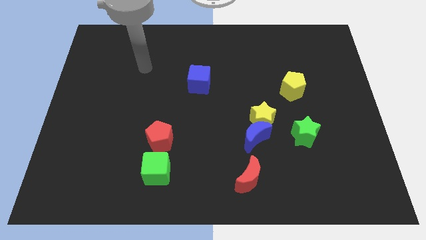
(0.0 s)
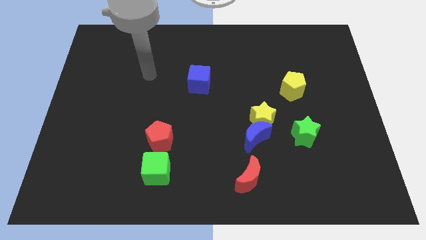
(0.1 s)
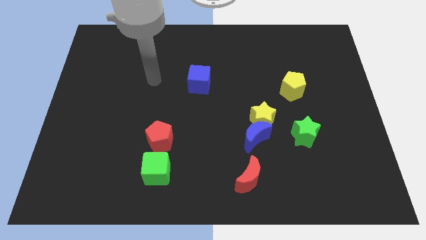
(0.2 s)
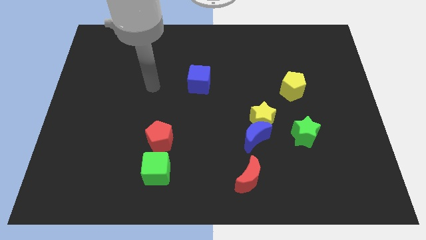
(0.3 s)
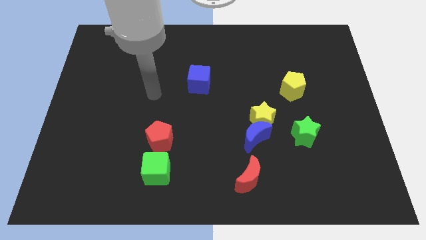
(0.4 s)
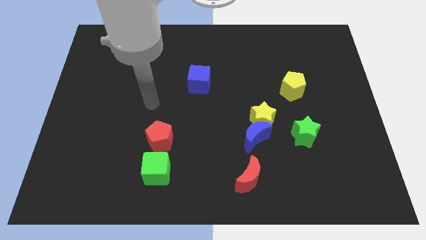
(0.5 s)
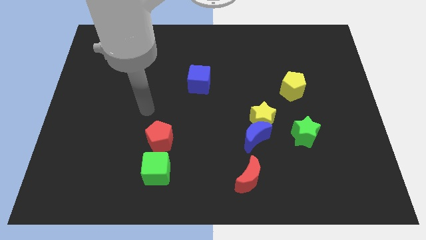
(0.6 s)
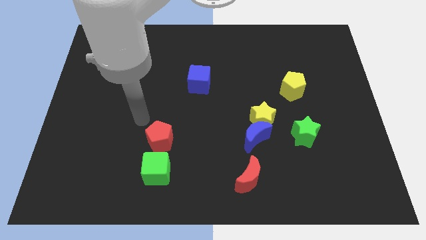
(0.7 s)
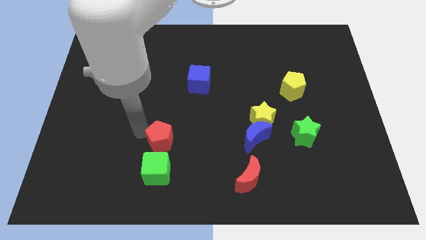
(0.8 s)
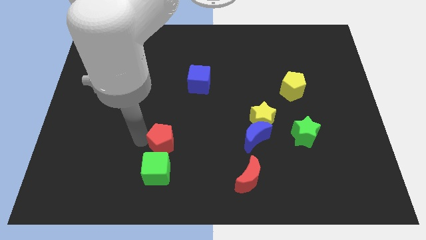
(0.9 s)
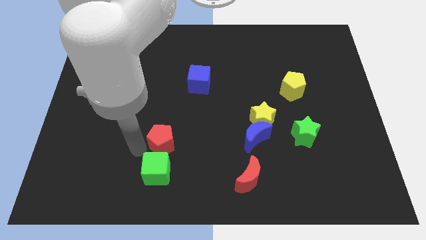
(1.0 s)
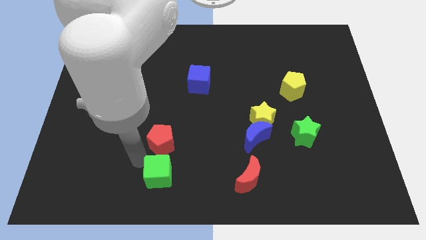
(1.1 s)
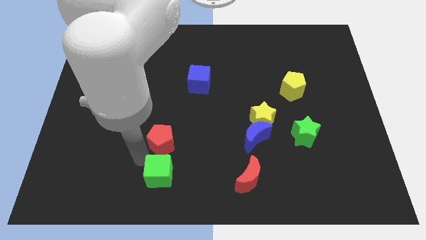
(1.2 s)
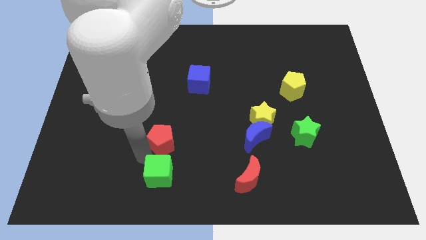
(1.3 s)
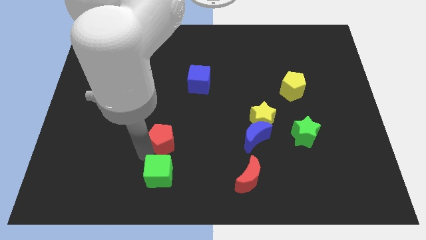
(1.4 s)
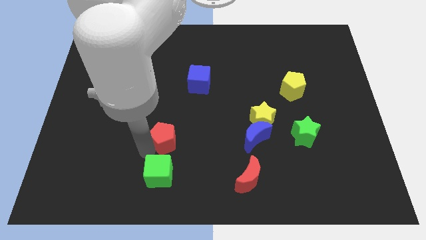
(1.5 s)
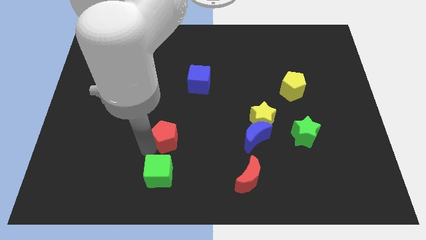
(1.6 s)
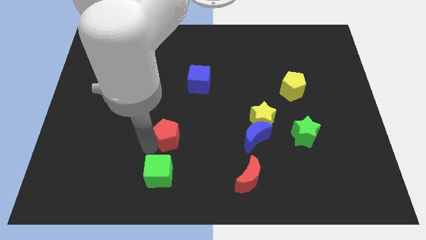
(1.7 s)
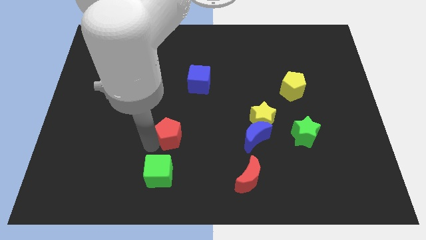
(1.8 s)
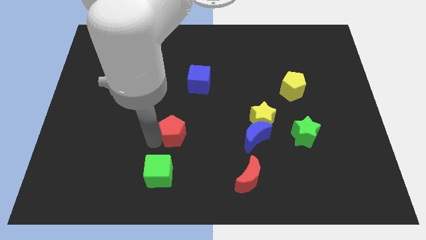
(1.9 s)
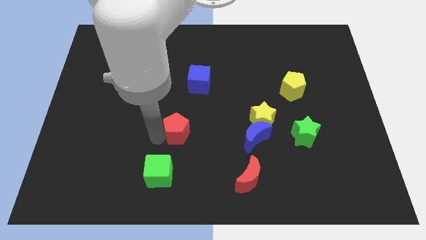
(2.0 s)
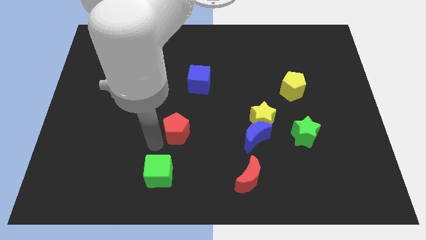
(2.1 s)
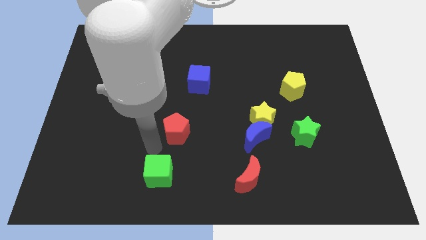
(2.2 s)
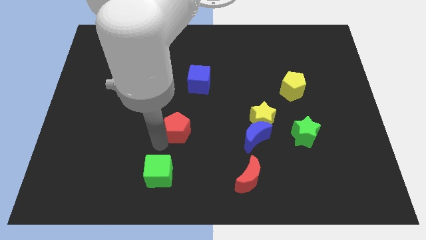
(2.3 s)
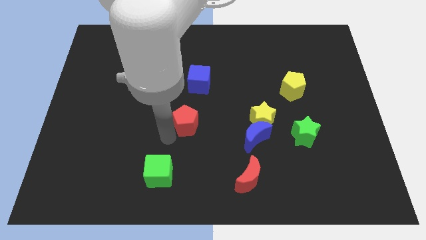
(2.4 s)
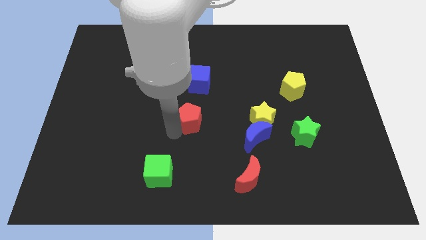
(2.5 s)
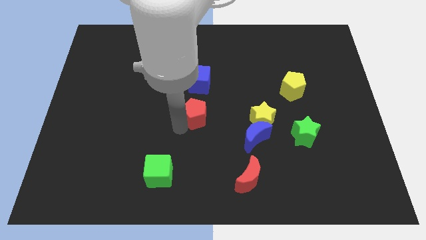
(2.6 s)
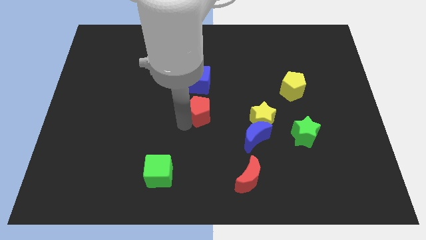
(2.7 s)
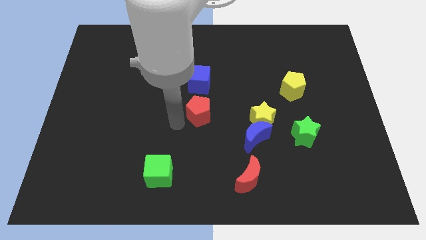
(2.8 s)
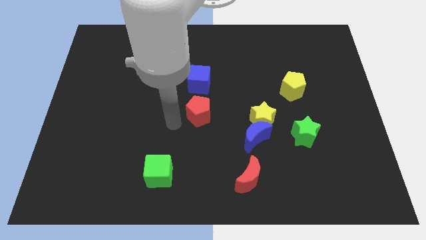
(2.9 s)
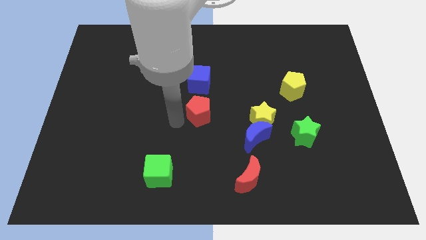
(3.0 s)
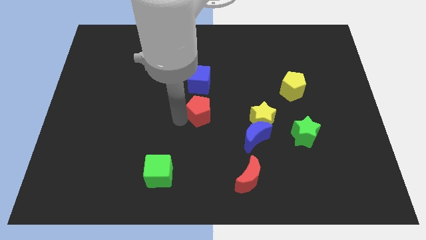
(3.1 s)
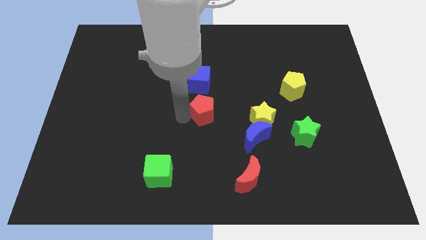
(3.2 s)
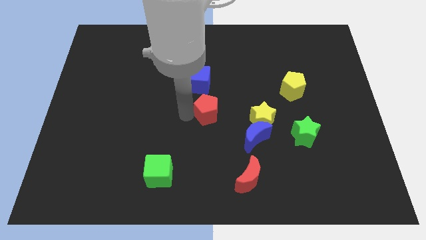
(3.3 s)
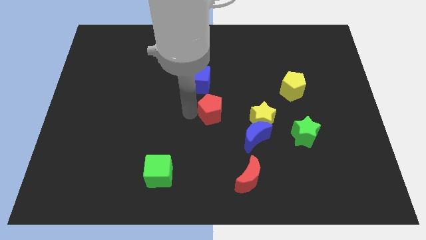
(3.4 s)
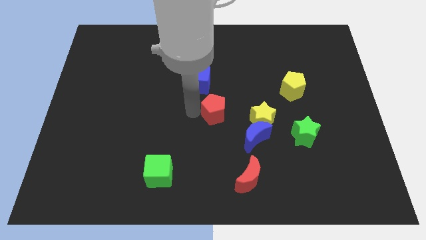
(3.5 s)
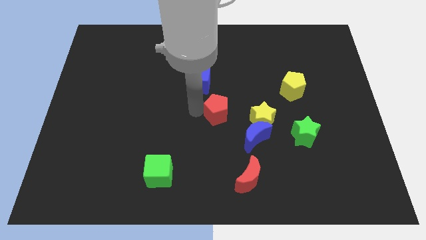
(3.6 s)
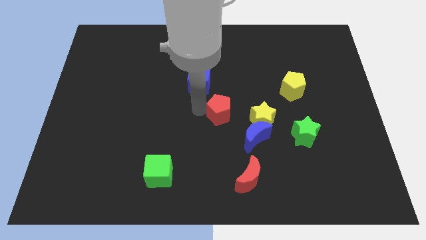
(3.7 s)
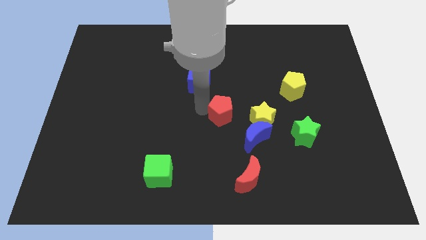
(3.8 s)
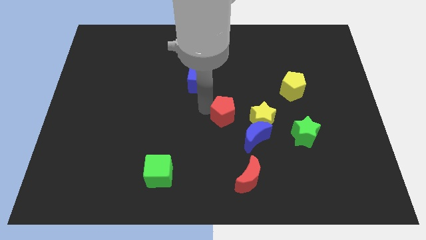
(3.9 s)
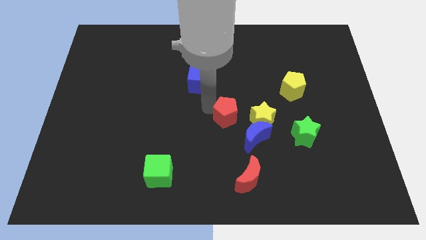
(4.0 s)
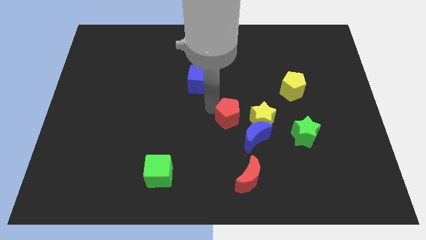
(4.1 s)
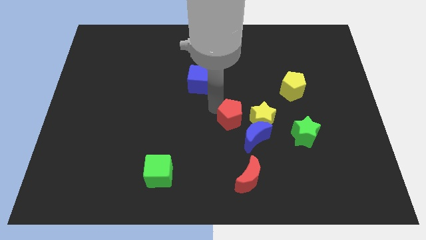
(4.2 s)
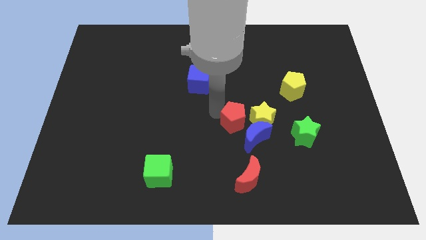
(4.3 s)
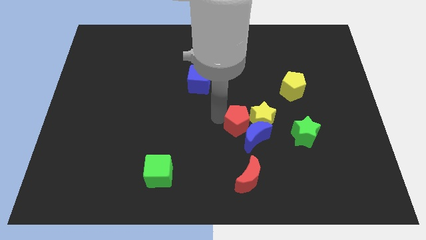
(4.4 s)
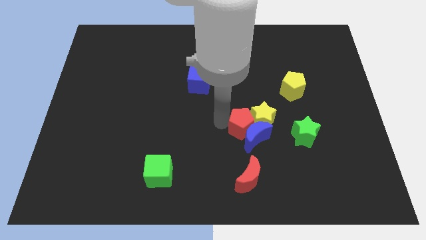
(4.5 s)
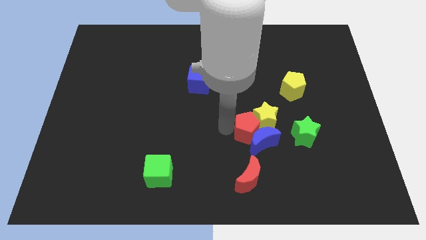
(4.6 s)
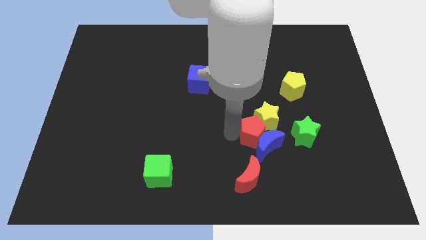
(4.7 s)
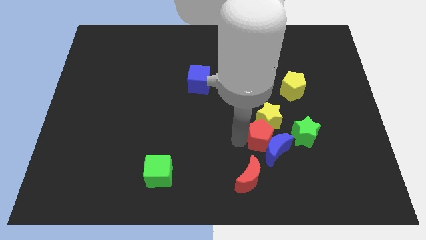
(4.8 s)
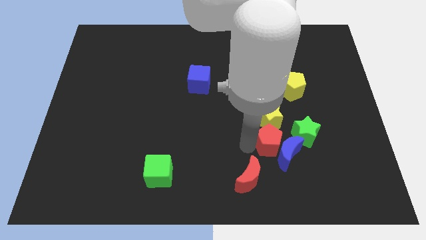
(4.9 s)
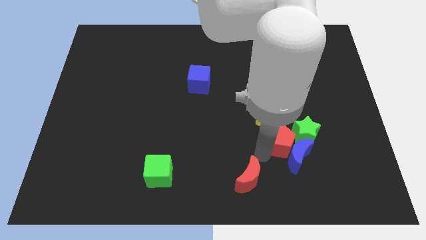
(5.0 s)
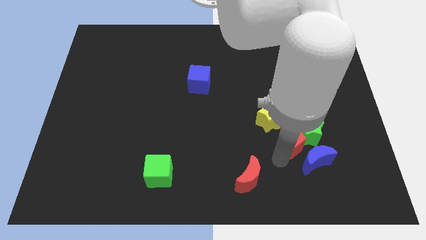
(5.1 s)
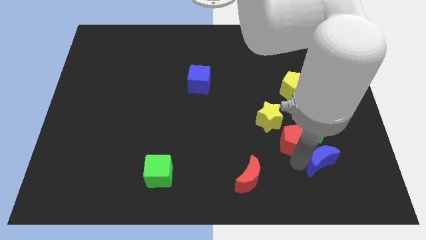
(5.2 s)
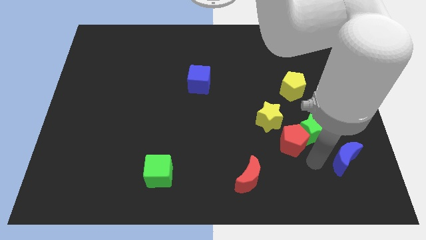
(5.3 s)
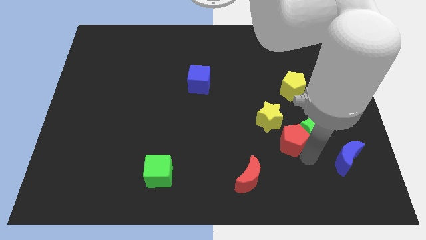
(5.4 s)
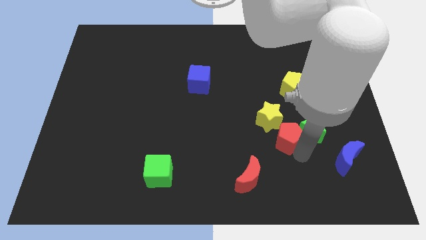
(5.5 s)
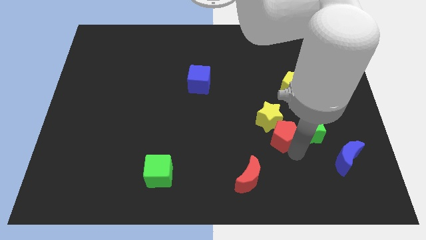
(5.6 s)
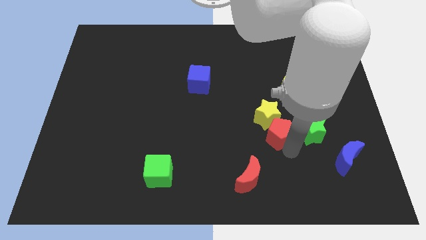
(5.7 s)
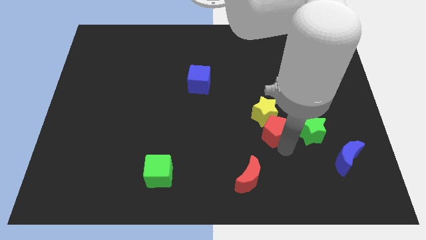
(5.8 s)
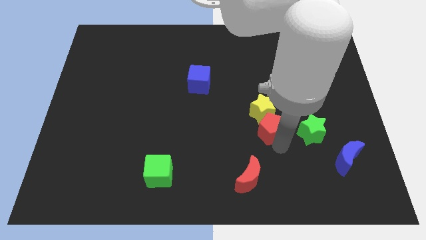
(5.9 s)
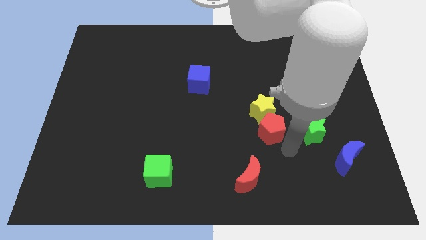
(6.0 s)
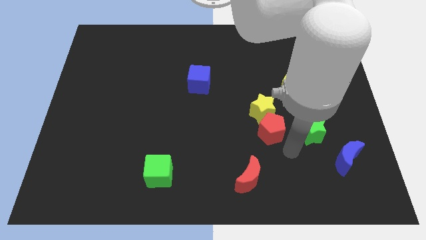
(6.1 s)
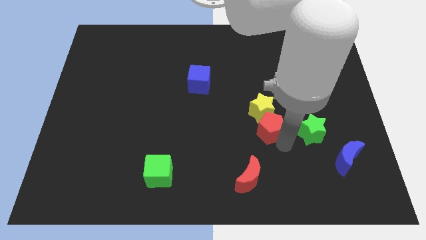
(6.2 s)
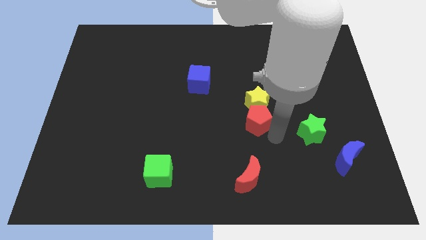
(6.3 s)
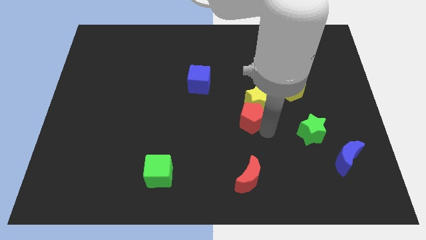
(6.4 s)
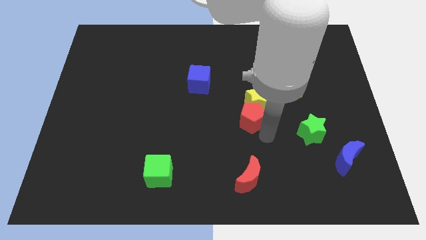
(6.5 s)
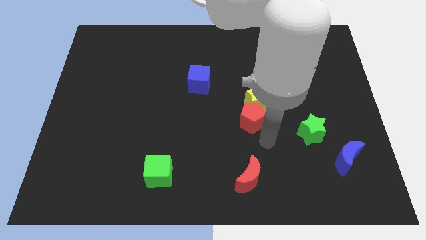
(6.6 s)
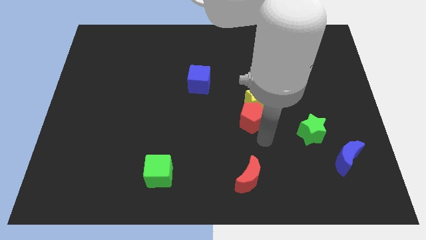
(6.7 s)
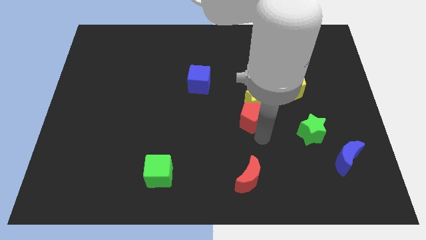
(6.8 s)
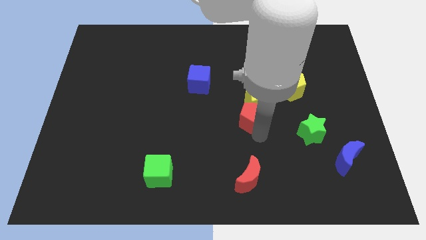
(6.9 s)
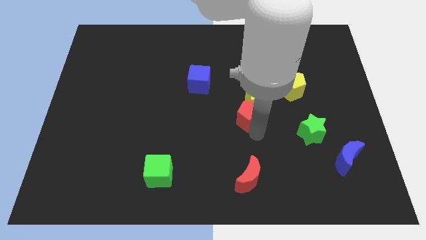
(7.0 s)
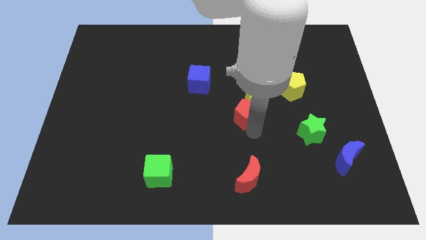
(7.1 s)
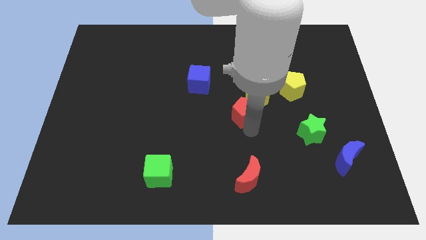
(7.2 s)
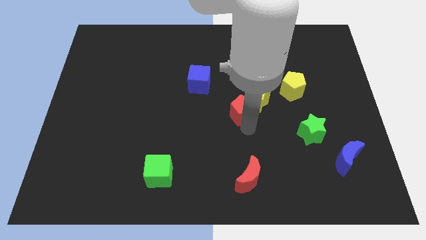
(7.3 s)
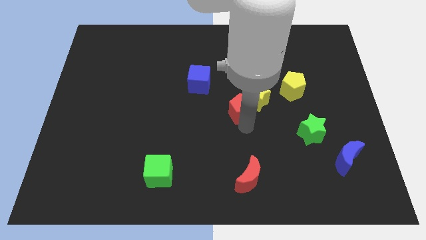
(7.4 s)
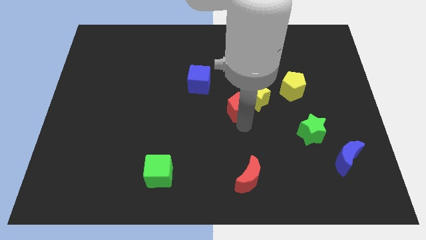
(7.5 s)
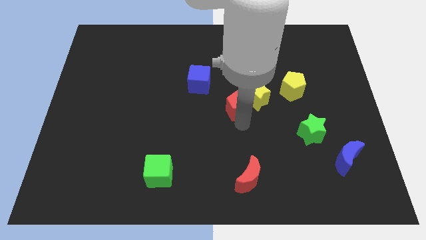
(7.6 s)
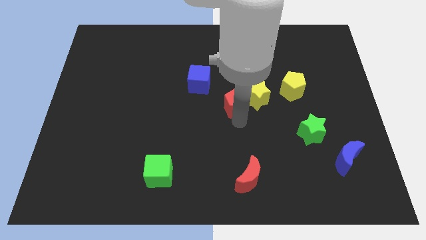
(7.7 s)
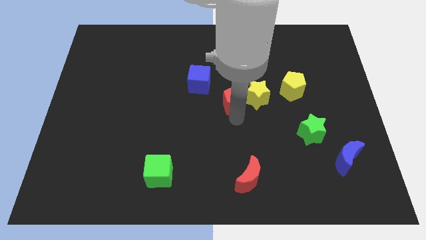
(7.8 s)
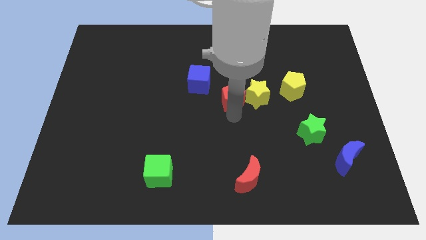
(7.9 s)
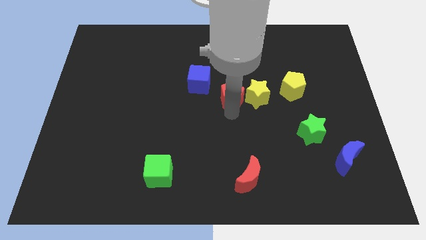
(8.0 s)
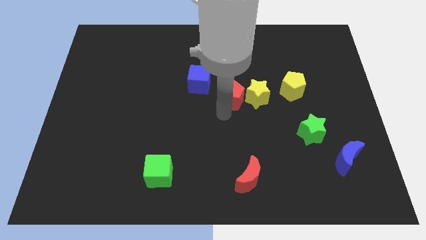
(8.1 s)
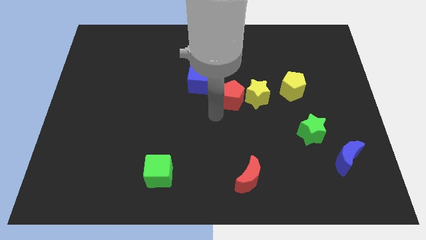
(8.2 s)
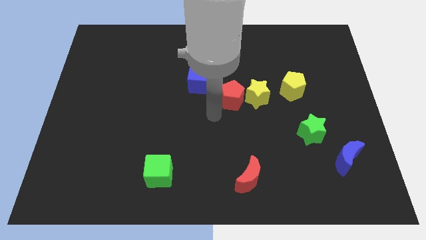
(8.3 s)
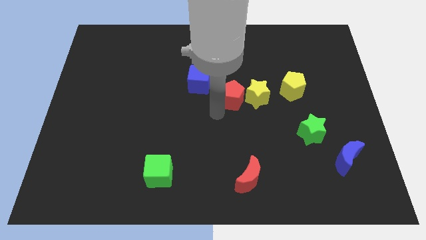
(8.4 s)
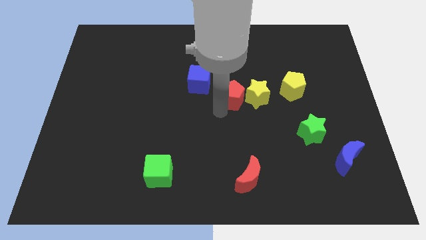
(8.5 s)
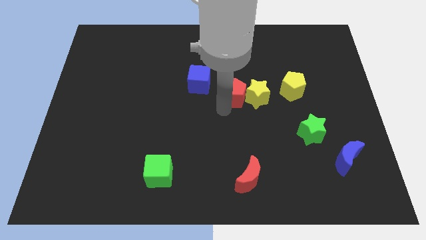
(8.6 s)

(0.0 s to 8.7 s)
push the red pentagon upwards and right
